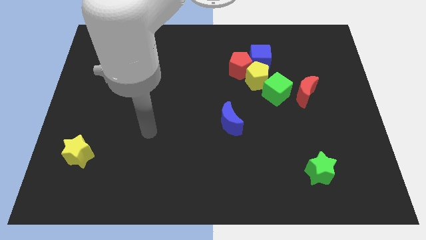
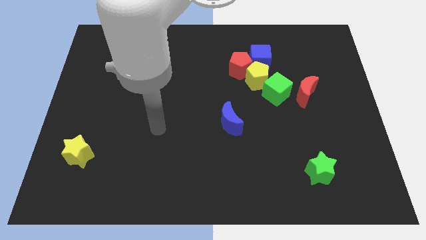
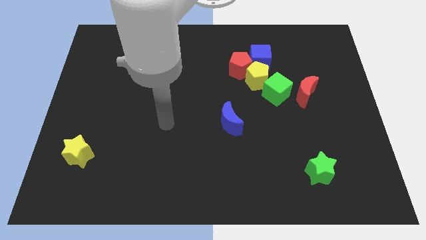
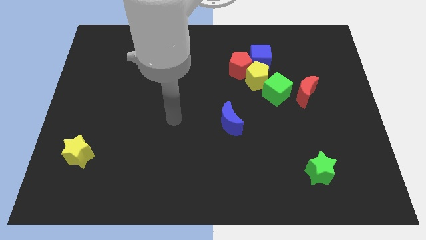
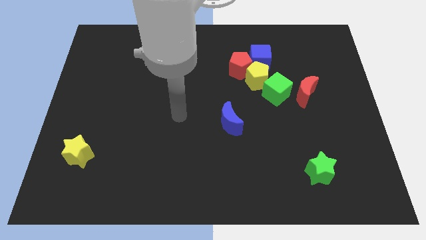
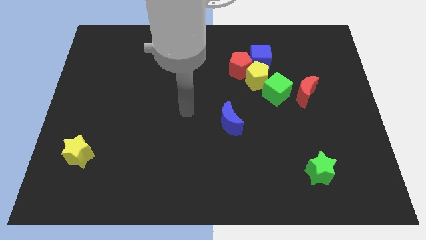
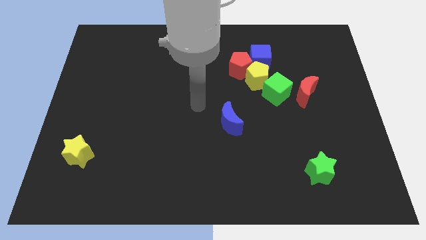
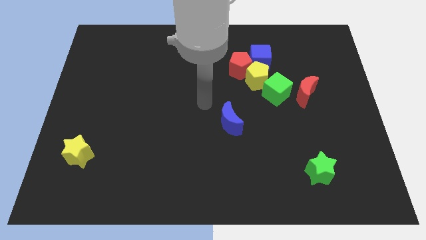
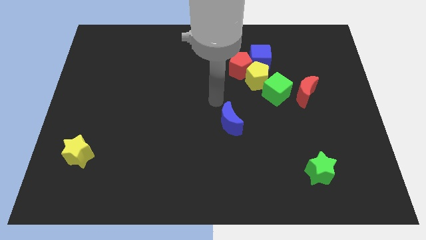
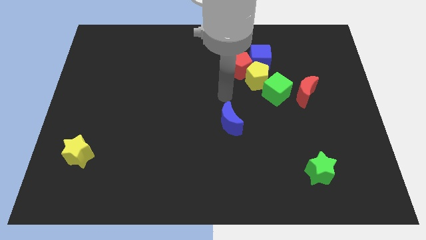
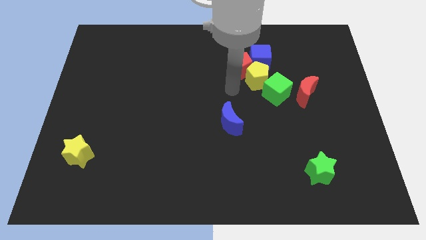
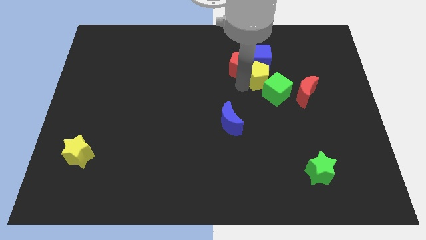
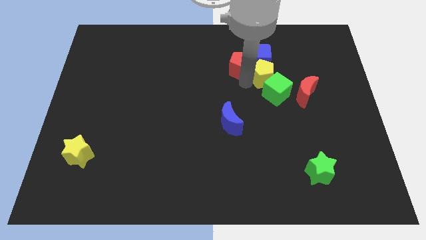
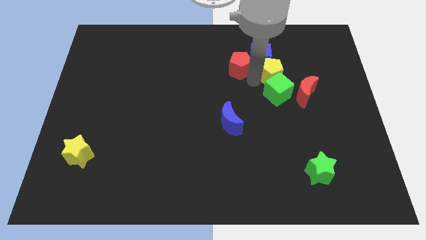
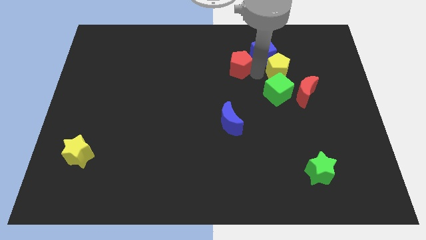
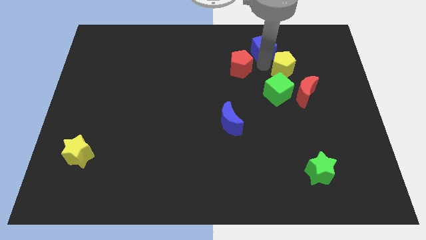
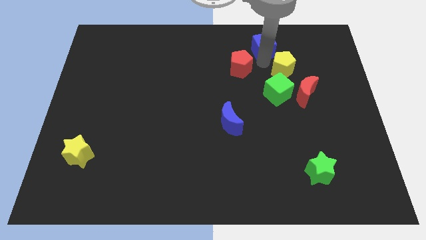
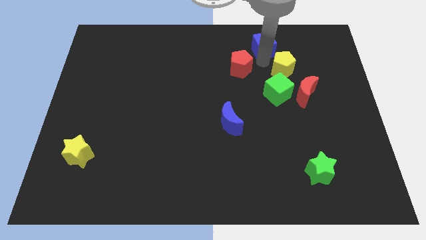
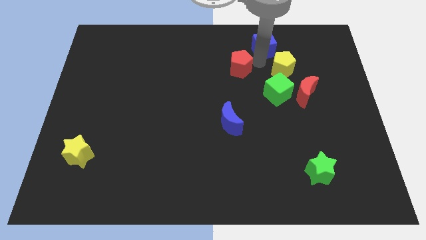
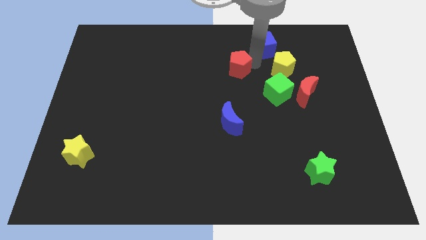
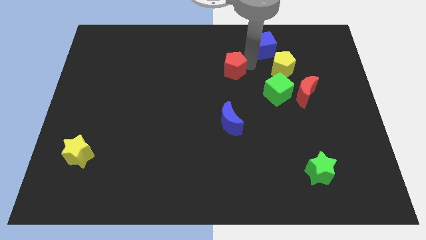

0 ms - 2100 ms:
move the red pentagon away from the yellow pentagon and blue cube

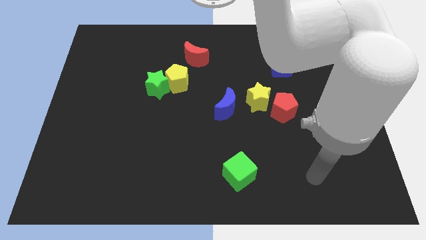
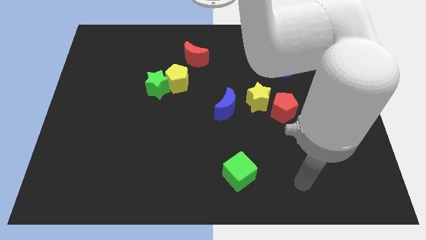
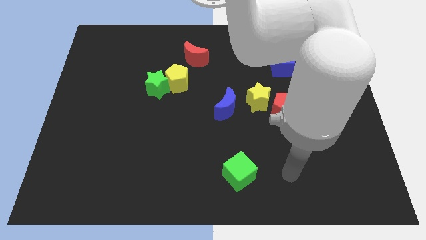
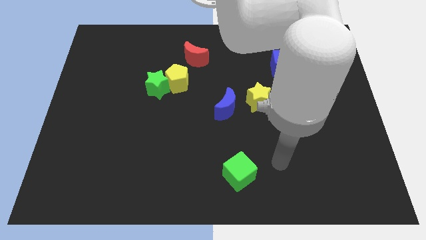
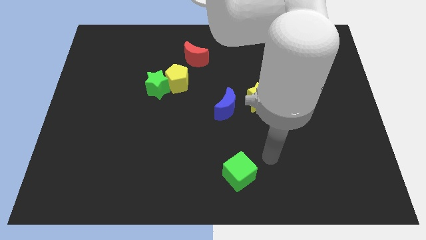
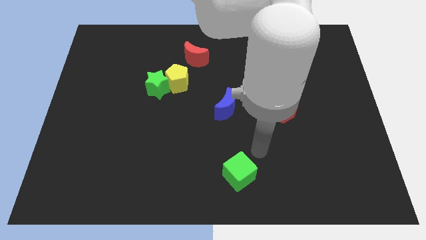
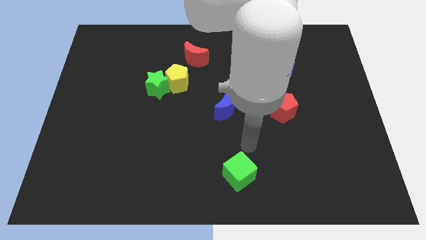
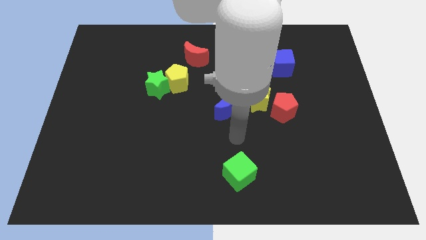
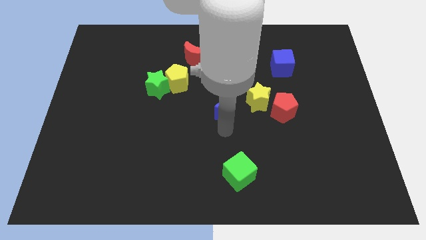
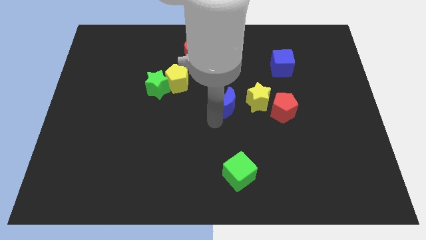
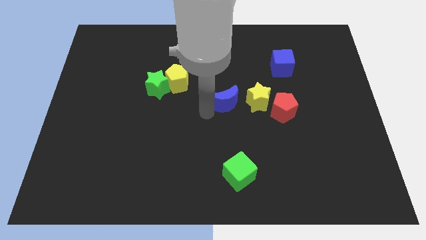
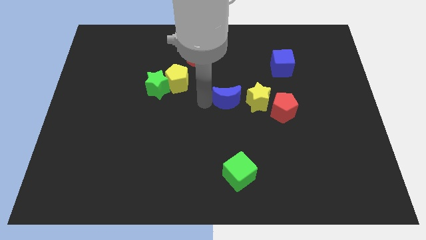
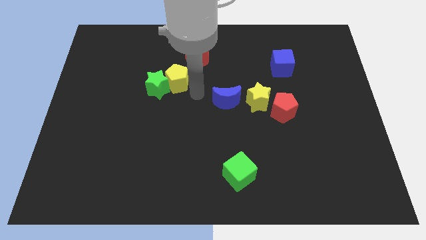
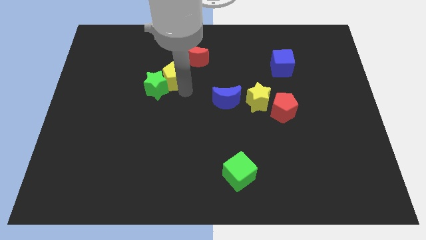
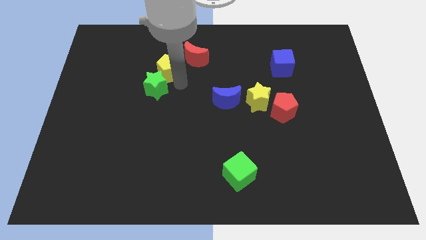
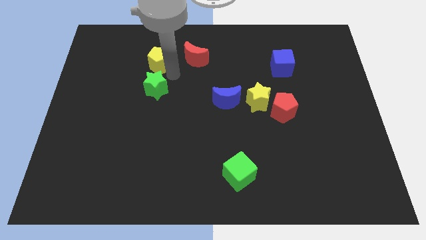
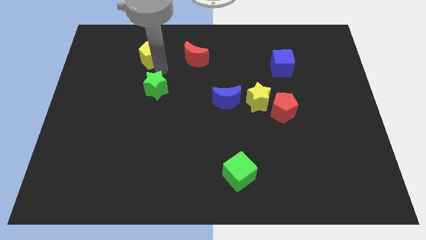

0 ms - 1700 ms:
separate the green star from the yellow pentagon

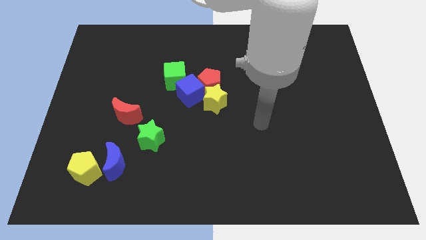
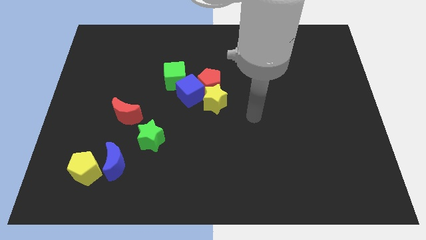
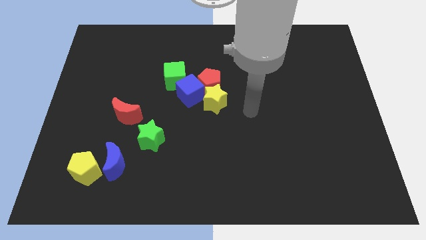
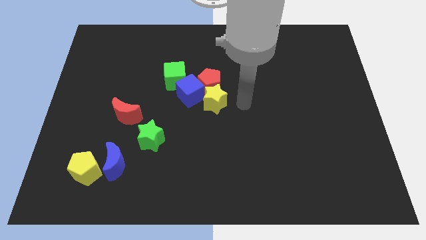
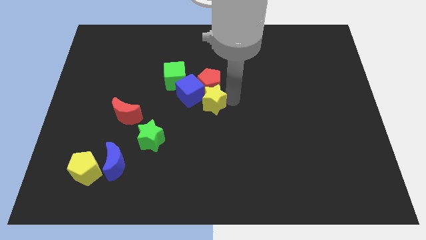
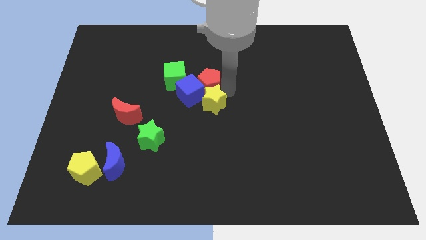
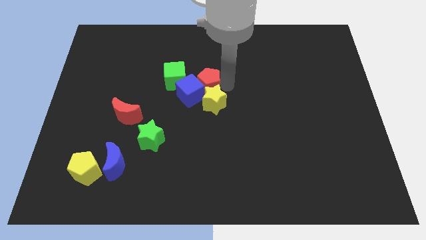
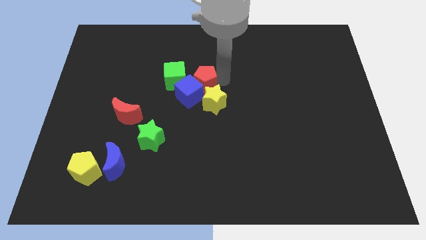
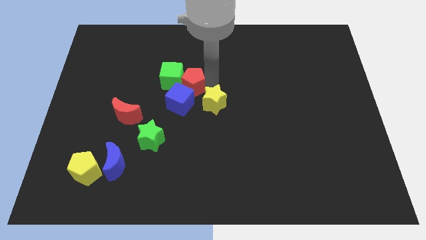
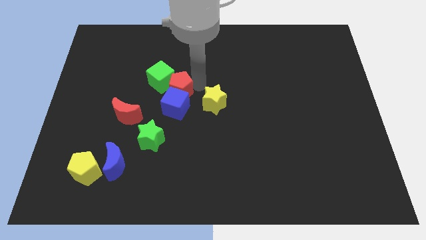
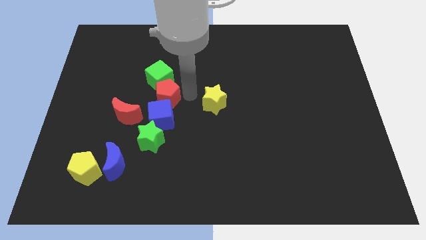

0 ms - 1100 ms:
move the yellow star away from the red pentagon and blue cube

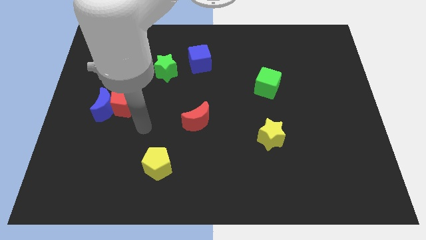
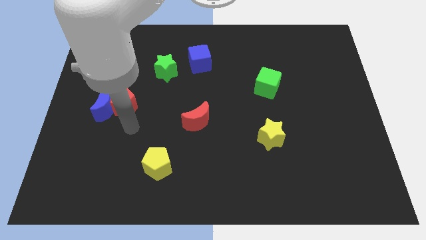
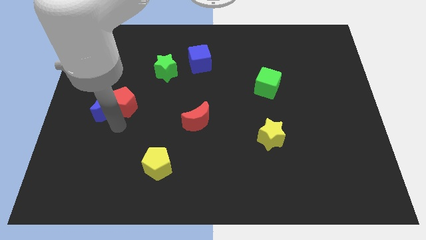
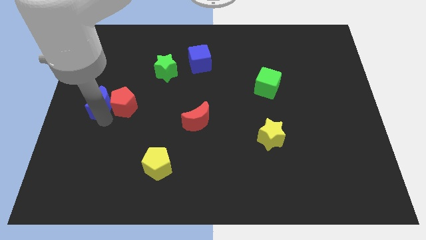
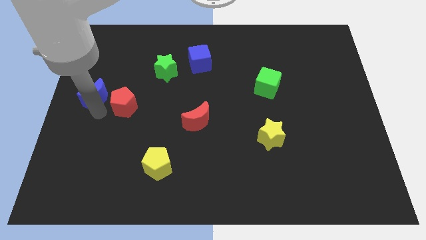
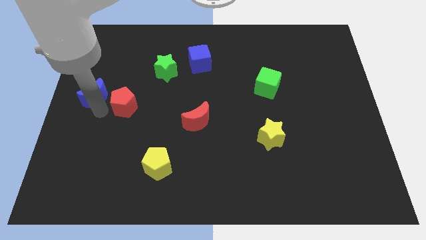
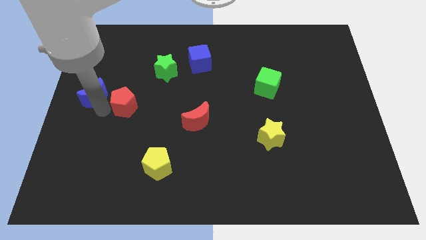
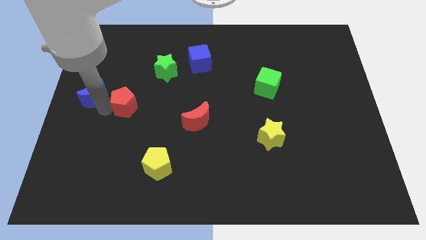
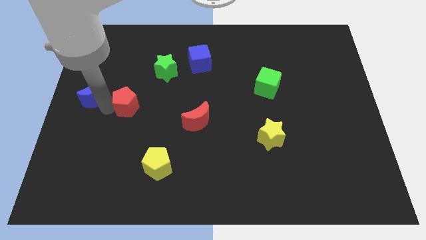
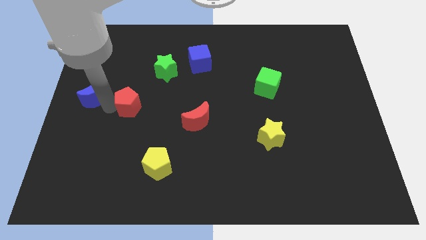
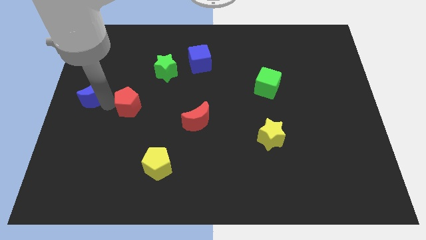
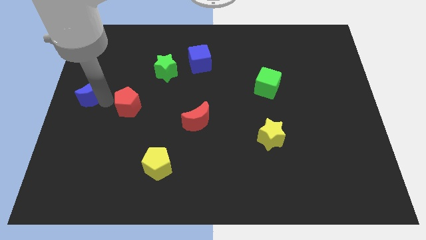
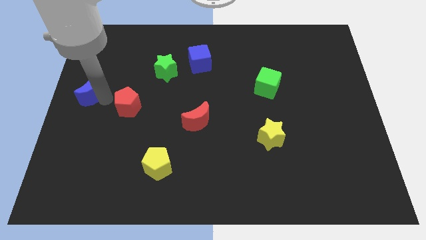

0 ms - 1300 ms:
pull the red pentagon apart from the blue moon

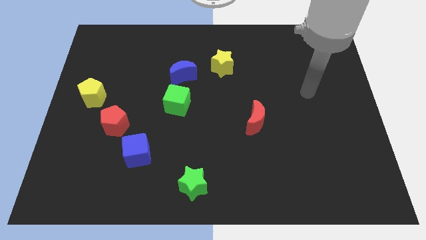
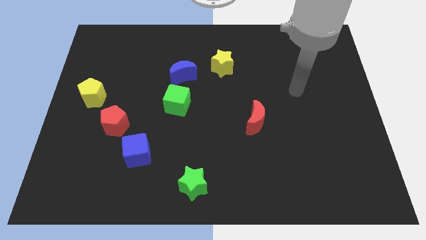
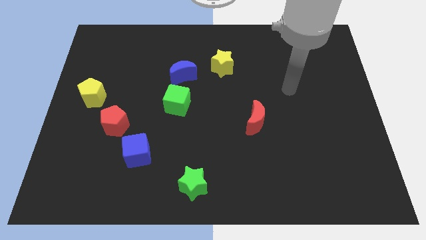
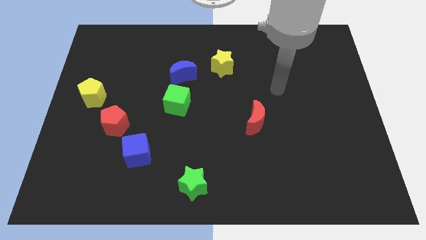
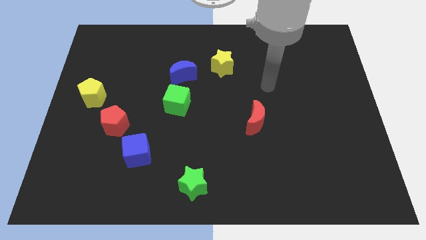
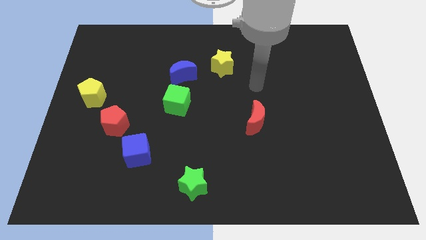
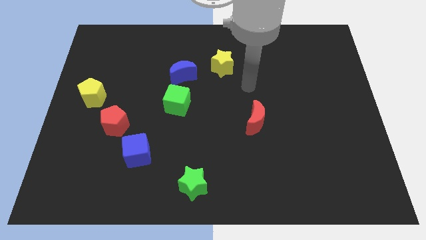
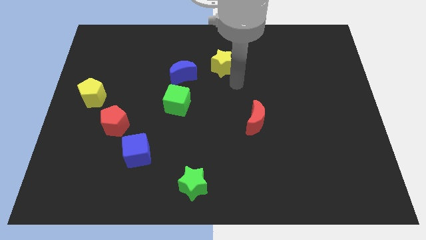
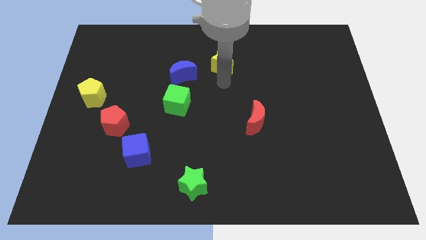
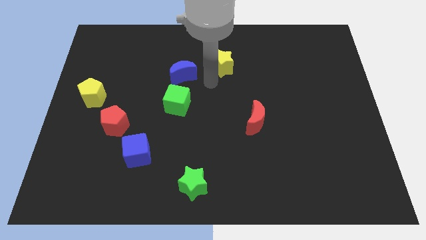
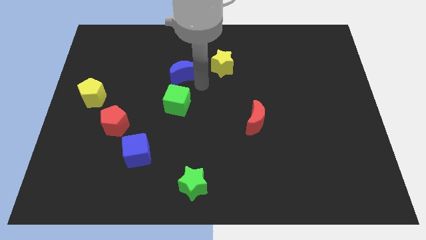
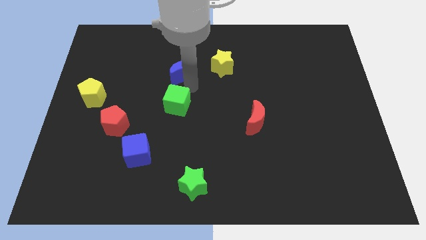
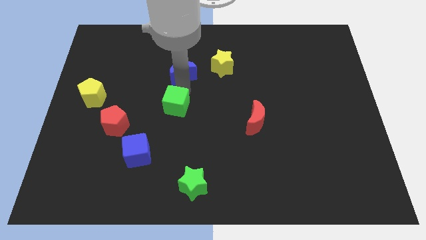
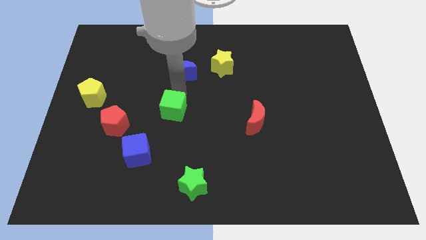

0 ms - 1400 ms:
move the blue moon away from the green cube

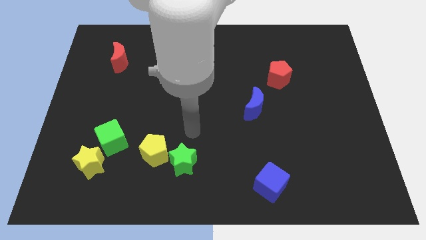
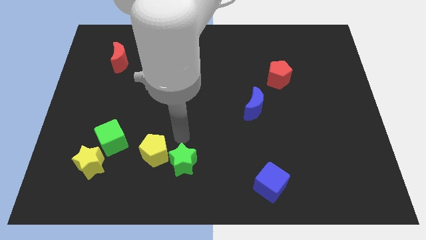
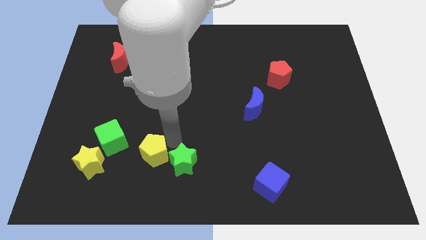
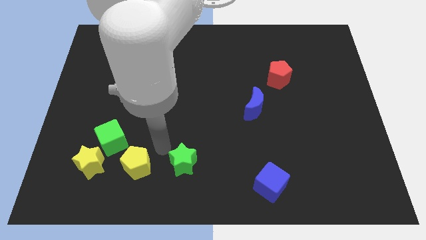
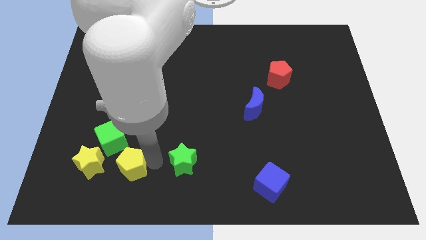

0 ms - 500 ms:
move the green star away from the yellow pentagon

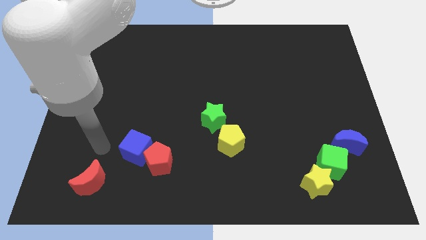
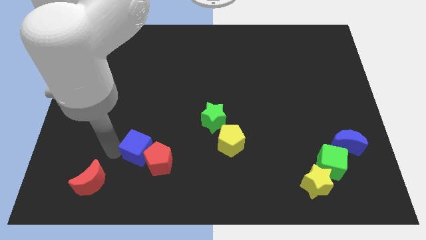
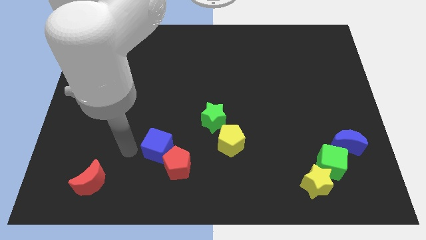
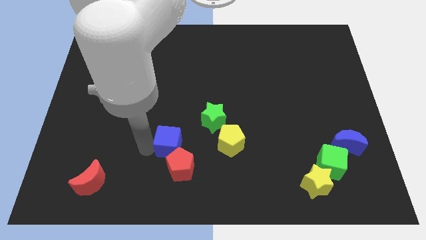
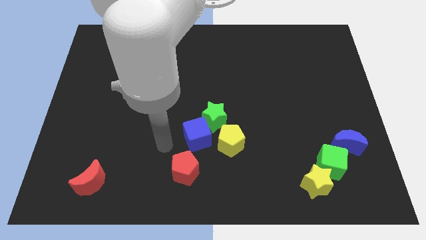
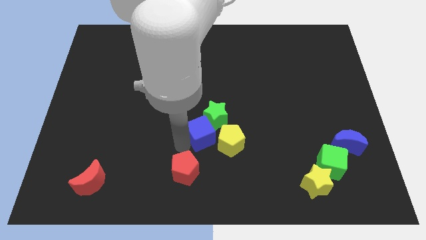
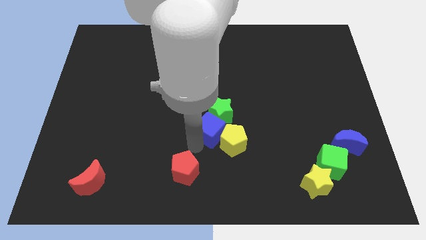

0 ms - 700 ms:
pull the red pentagon apart from the blue cube

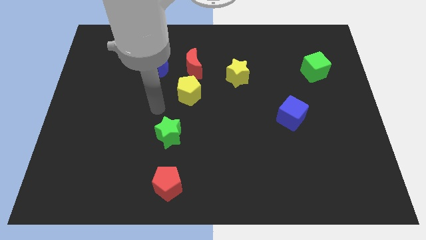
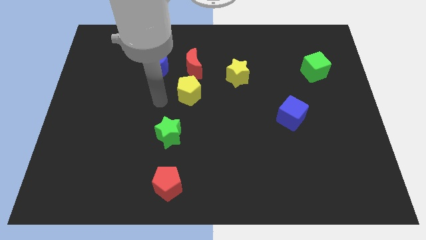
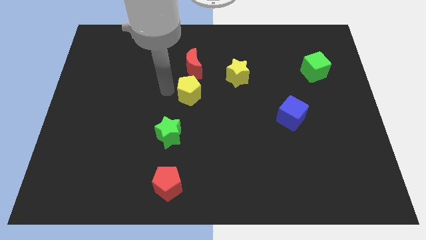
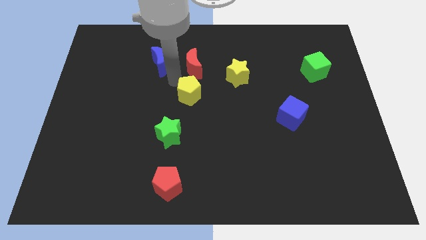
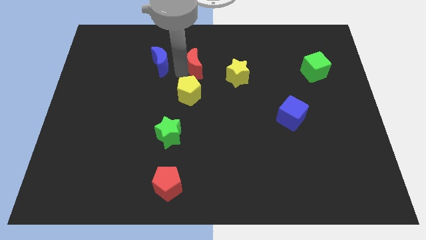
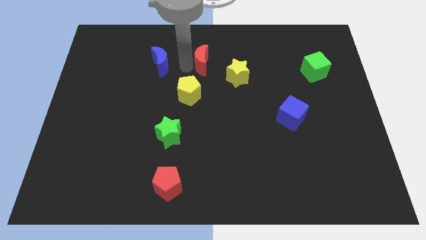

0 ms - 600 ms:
pull the blue moon apart from the red moon
